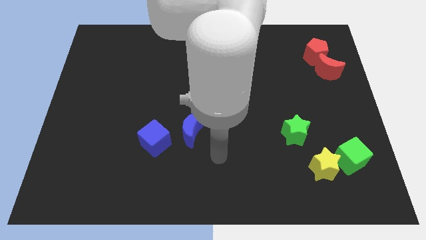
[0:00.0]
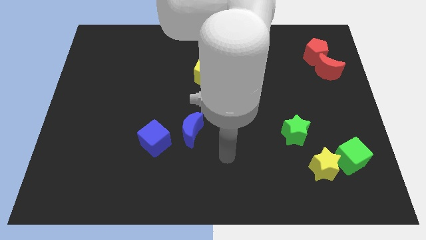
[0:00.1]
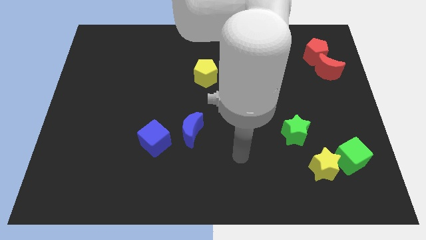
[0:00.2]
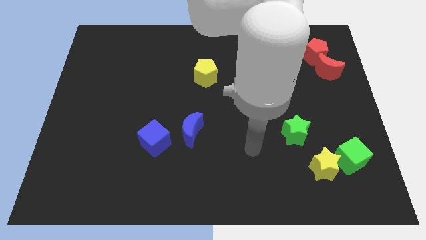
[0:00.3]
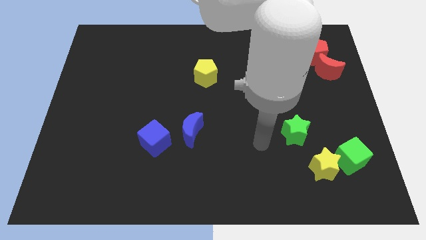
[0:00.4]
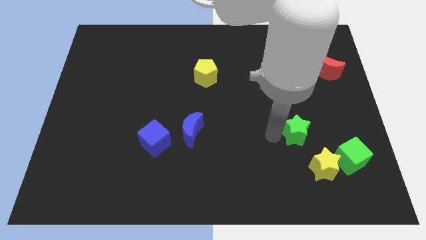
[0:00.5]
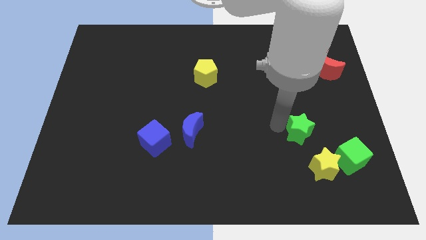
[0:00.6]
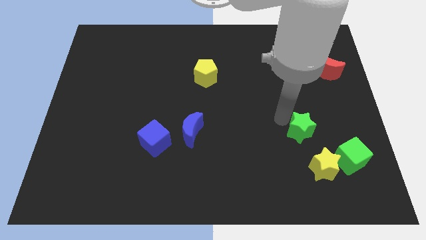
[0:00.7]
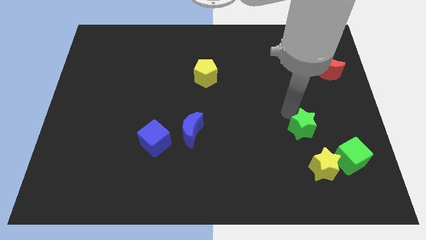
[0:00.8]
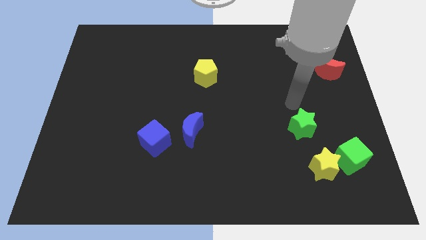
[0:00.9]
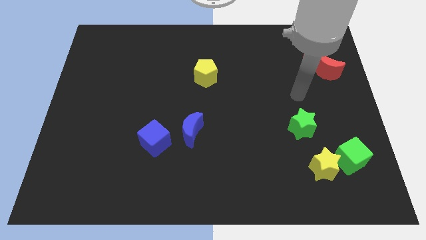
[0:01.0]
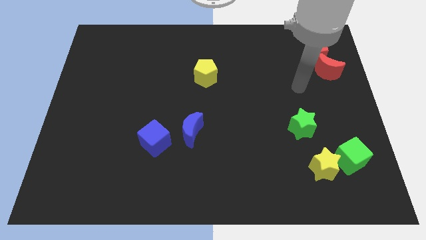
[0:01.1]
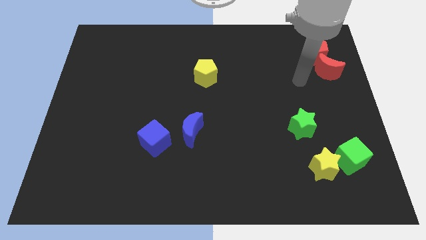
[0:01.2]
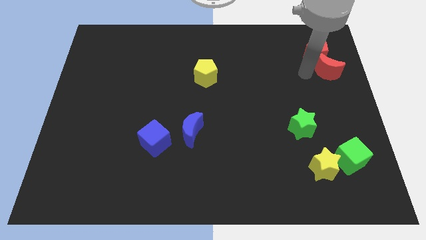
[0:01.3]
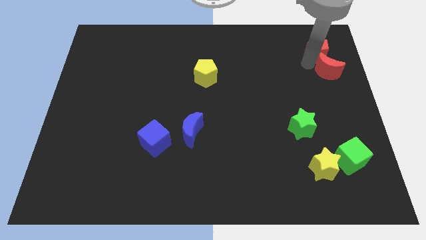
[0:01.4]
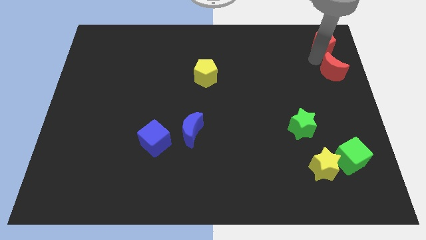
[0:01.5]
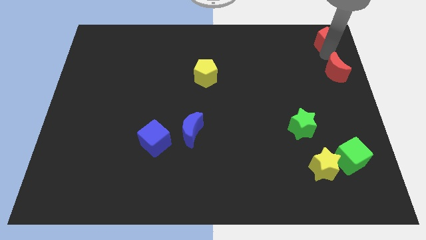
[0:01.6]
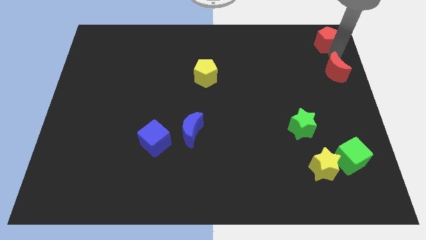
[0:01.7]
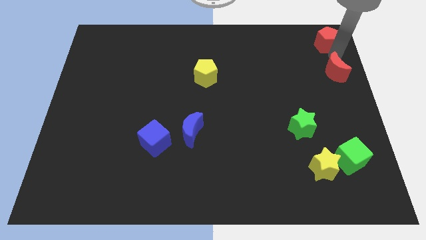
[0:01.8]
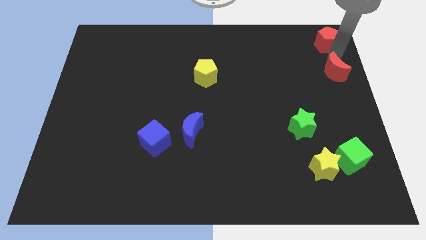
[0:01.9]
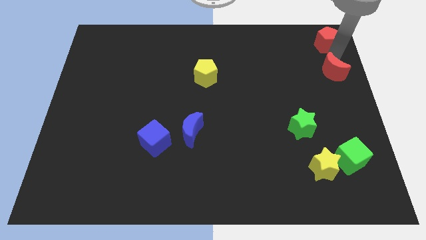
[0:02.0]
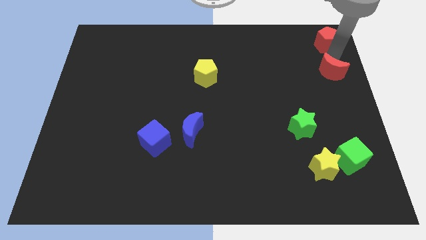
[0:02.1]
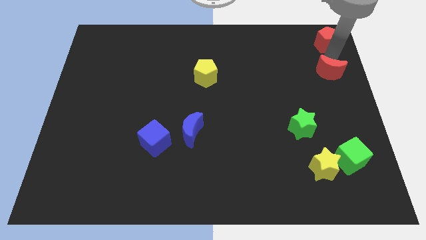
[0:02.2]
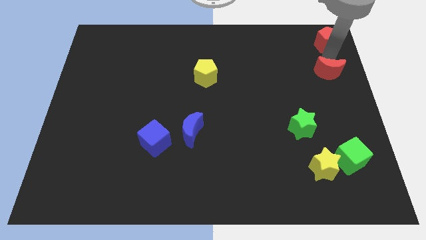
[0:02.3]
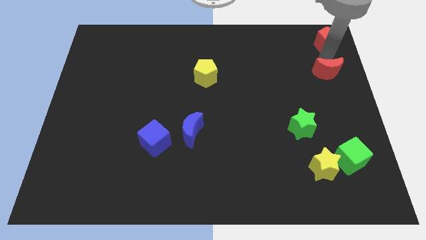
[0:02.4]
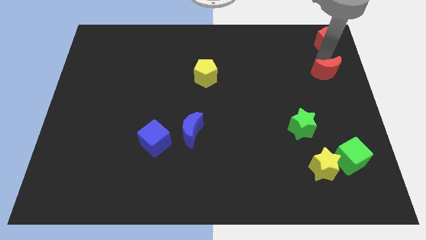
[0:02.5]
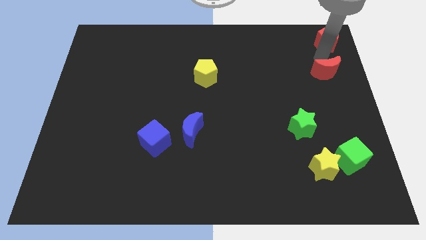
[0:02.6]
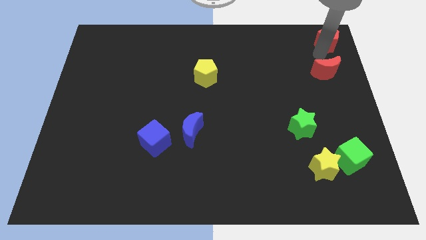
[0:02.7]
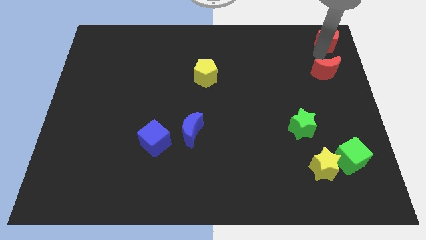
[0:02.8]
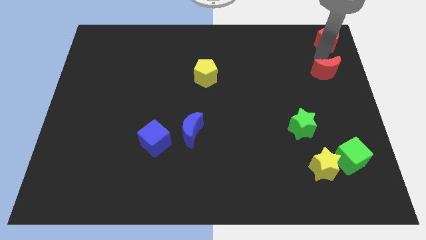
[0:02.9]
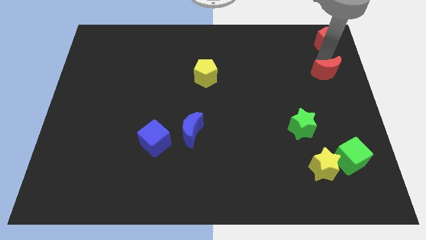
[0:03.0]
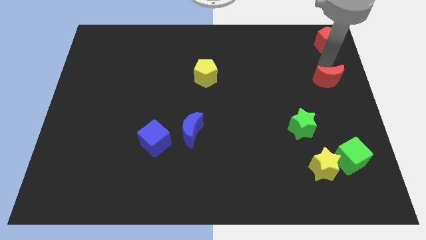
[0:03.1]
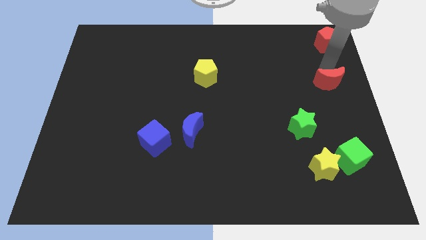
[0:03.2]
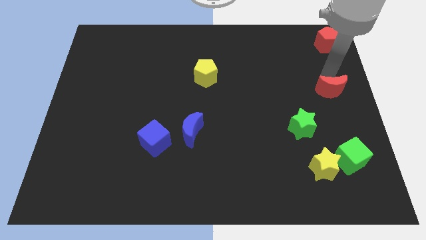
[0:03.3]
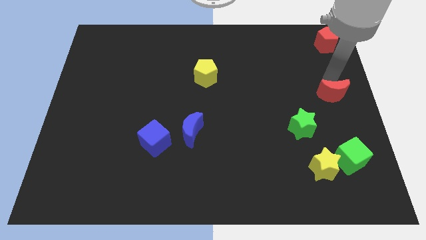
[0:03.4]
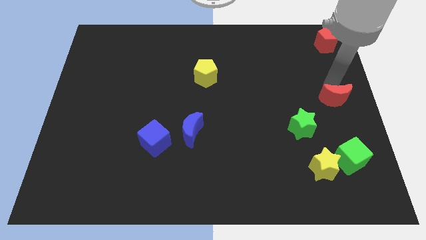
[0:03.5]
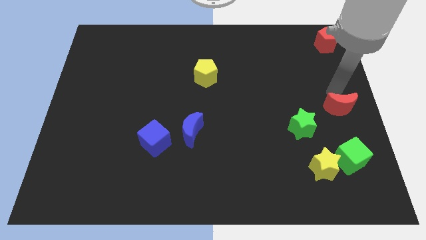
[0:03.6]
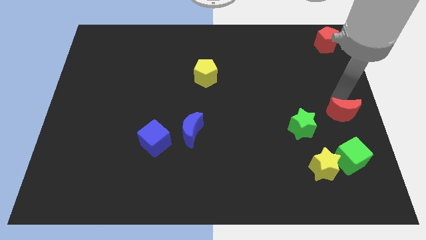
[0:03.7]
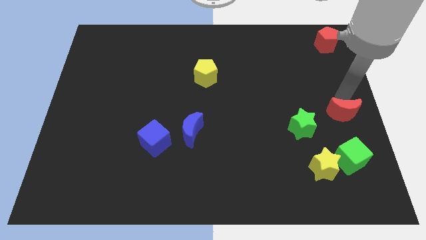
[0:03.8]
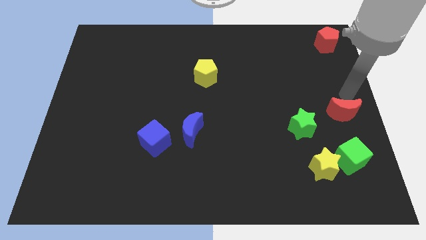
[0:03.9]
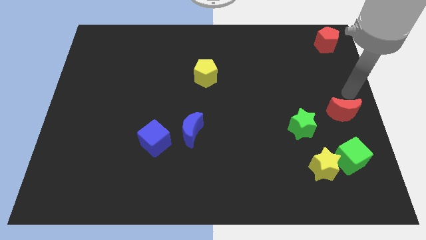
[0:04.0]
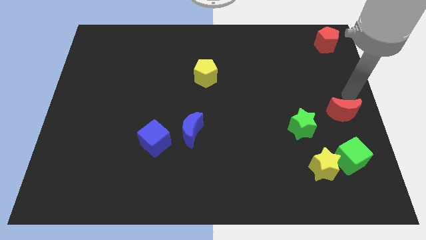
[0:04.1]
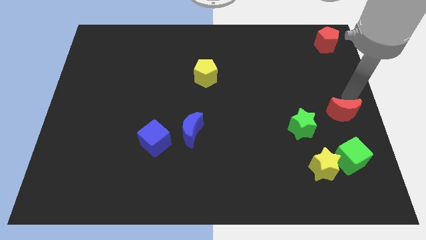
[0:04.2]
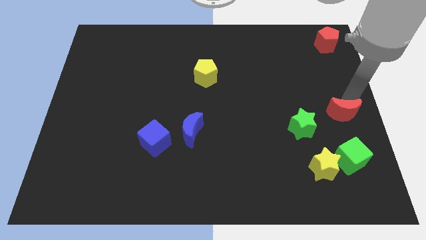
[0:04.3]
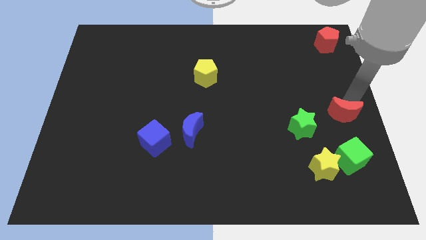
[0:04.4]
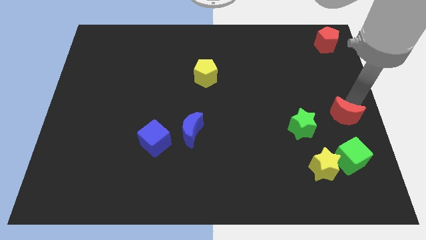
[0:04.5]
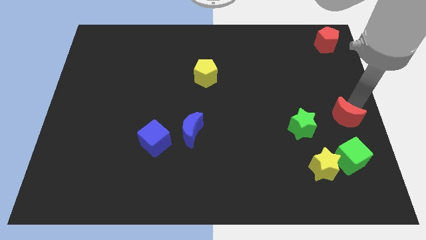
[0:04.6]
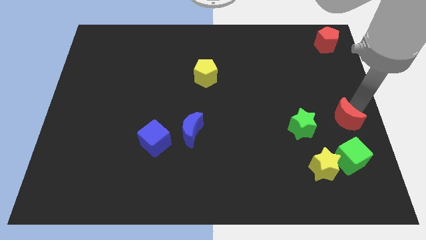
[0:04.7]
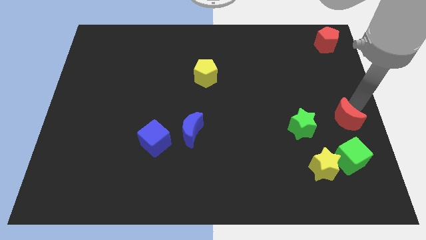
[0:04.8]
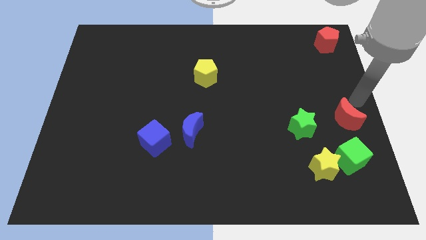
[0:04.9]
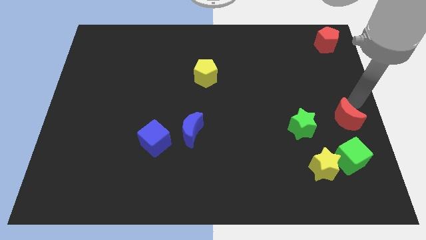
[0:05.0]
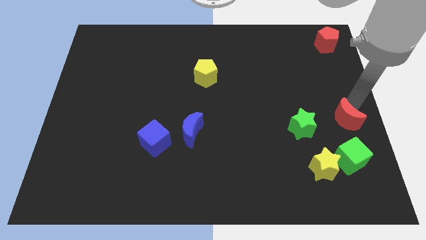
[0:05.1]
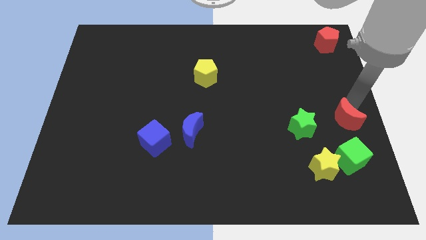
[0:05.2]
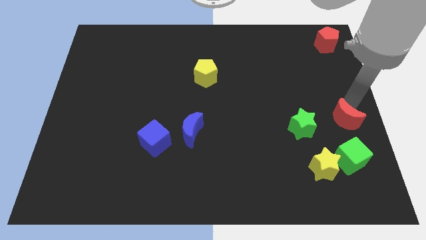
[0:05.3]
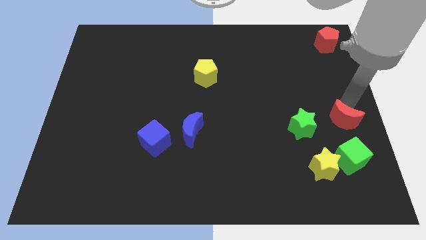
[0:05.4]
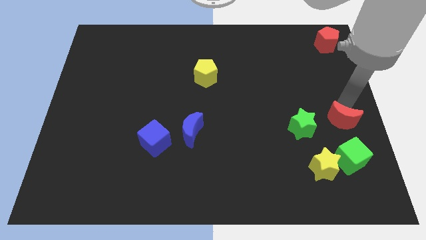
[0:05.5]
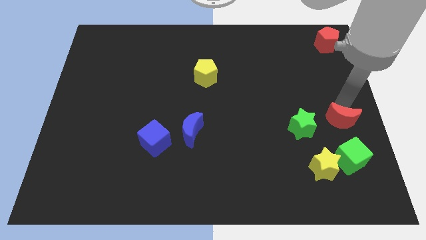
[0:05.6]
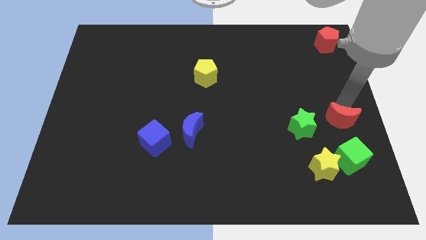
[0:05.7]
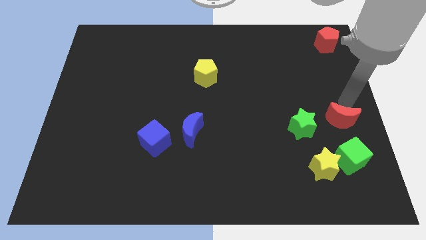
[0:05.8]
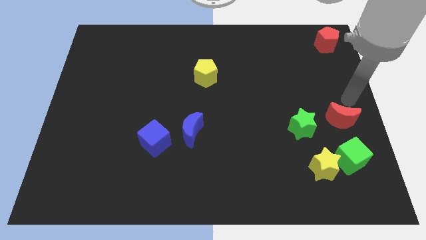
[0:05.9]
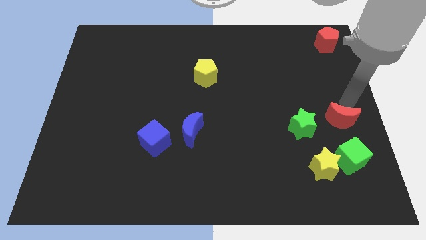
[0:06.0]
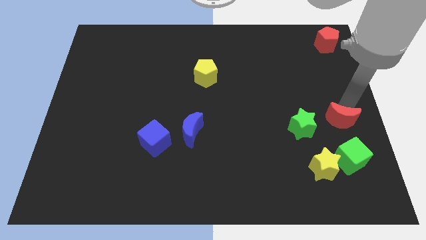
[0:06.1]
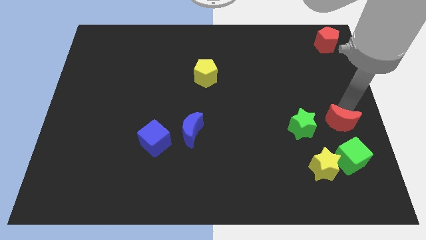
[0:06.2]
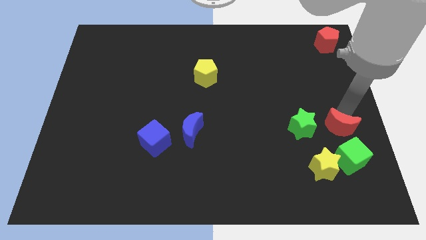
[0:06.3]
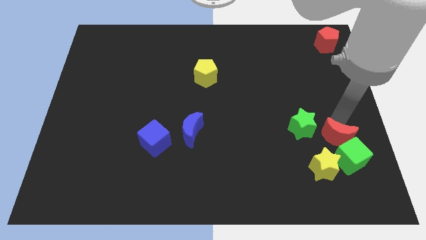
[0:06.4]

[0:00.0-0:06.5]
push the red moon towards the green cube
